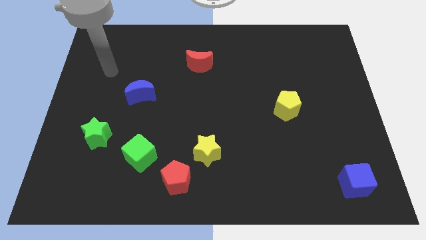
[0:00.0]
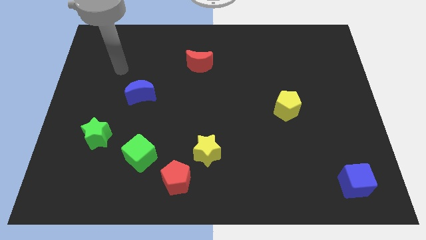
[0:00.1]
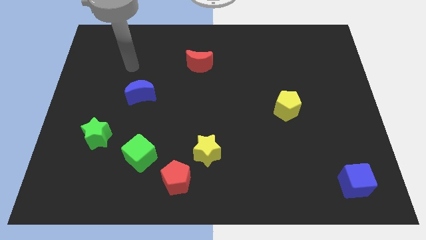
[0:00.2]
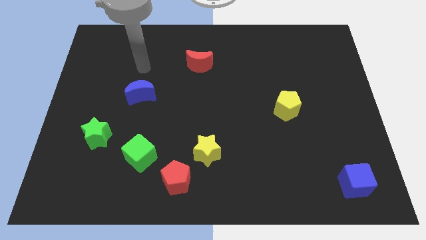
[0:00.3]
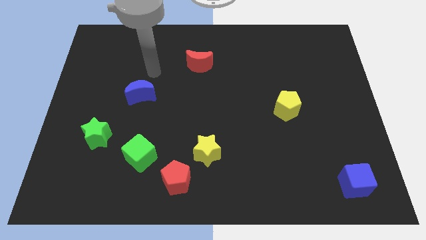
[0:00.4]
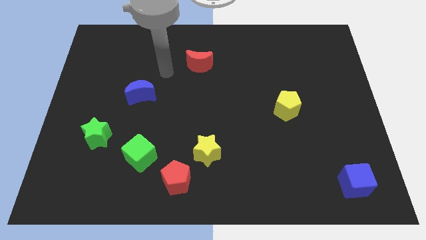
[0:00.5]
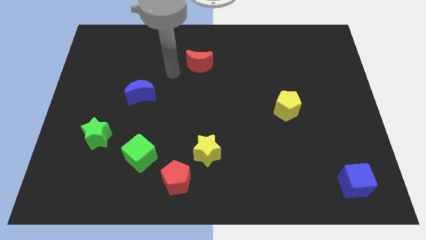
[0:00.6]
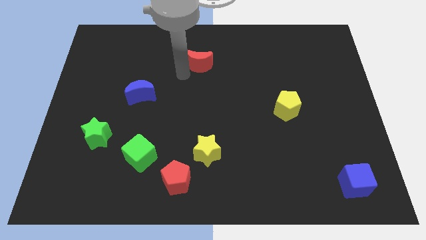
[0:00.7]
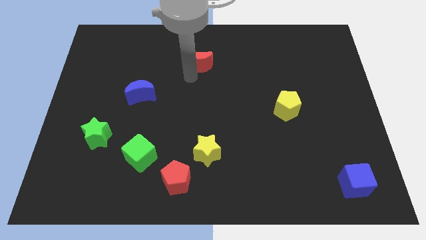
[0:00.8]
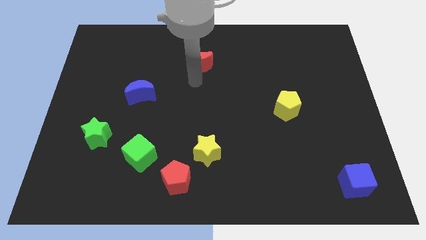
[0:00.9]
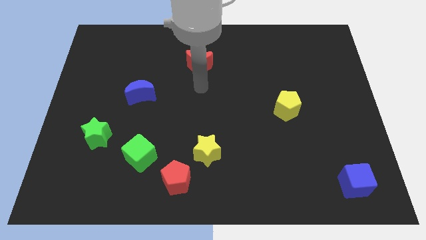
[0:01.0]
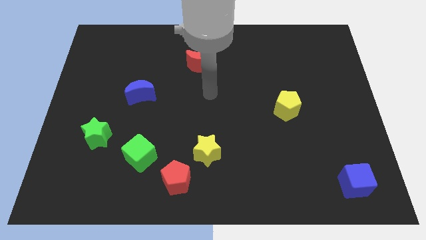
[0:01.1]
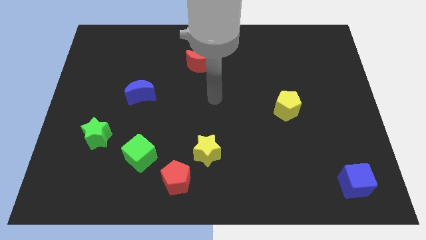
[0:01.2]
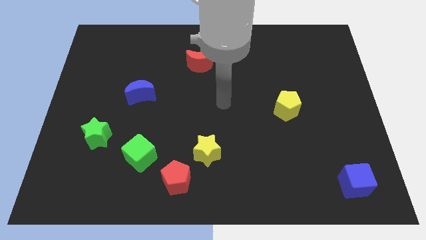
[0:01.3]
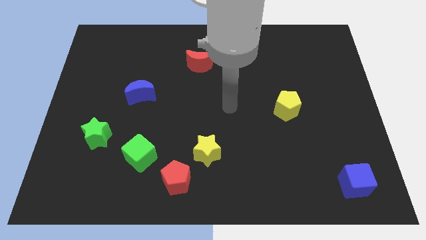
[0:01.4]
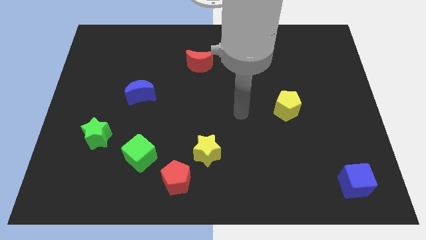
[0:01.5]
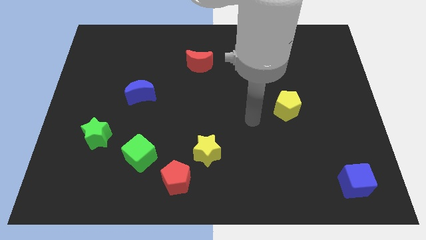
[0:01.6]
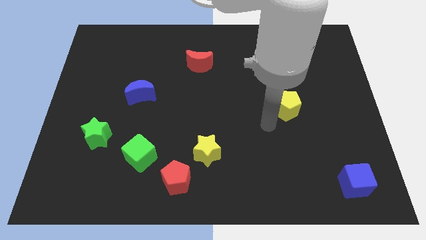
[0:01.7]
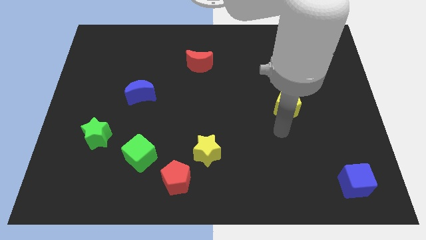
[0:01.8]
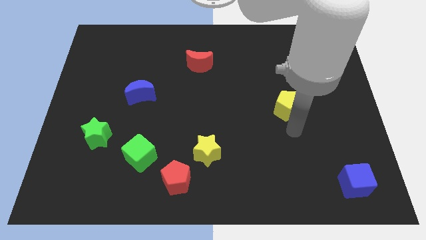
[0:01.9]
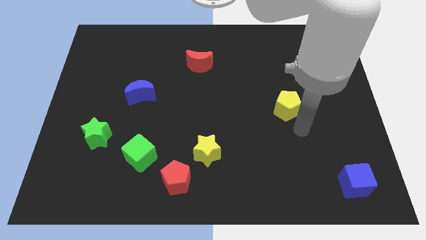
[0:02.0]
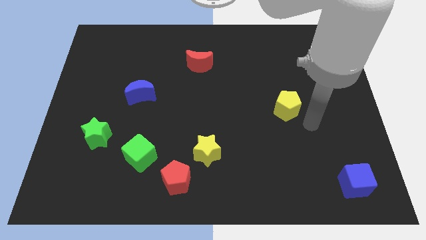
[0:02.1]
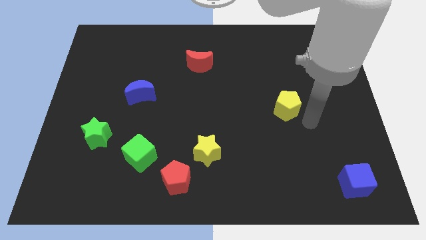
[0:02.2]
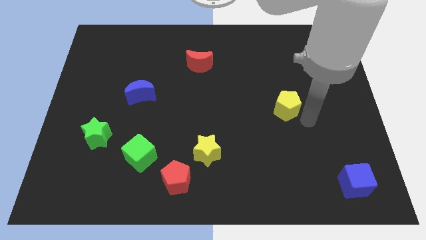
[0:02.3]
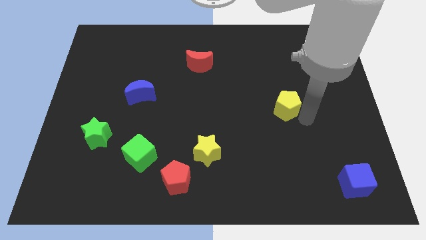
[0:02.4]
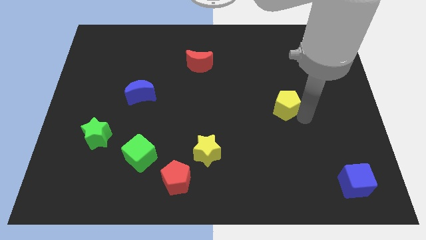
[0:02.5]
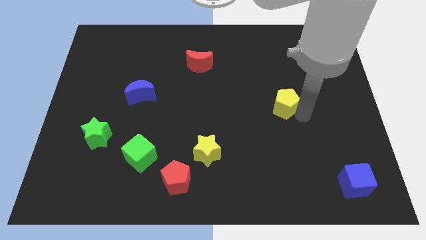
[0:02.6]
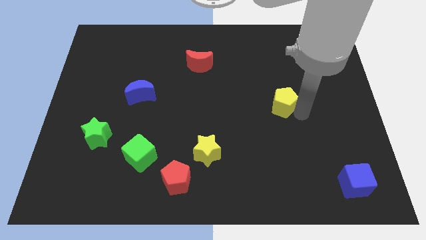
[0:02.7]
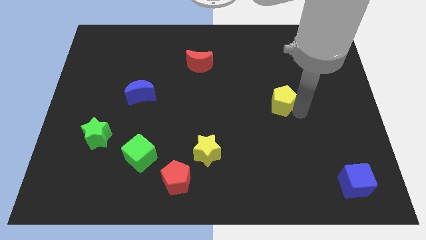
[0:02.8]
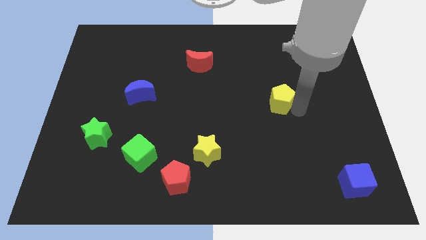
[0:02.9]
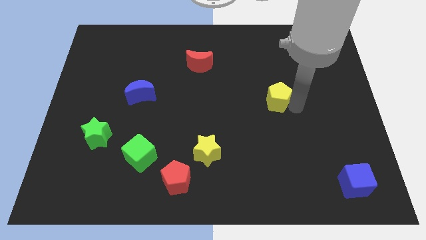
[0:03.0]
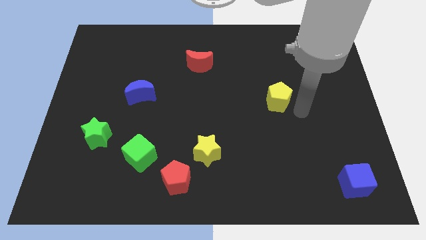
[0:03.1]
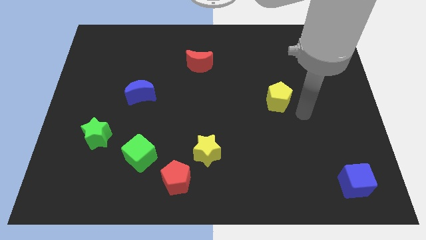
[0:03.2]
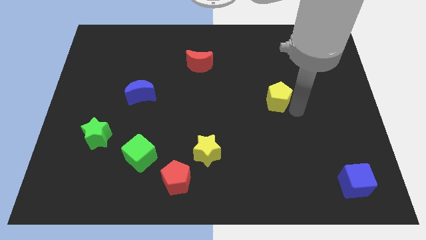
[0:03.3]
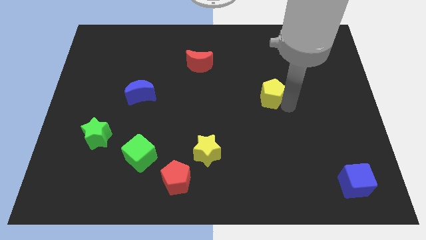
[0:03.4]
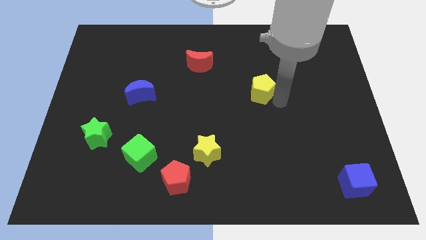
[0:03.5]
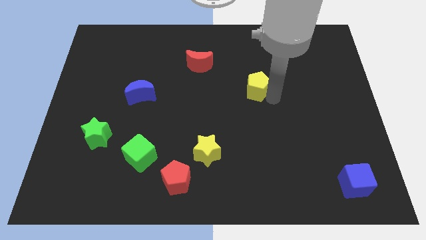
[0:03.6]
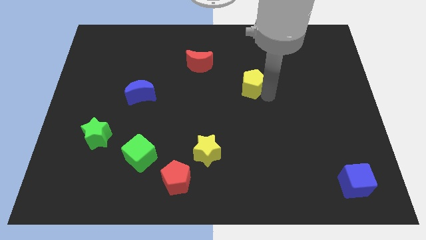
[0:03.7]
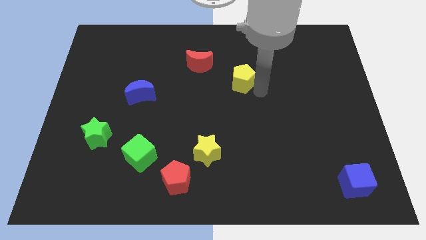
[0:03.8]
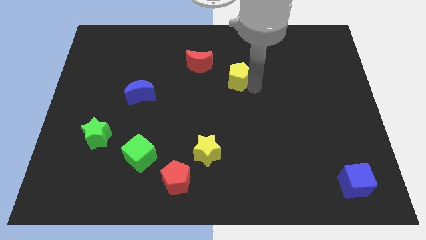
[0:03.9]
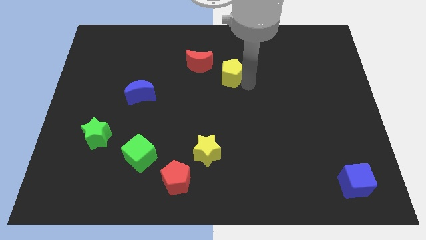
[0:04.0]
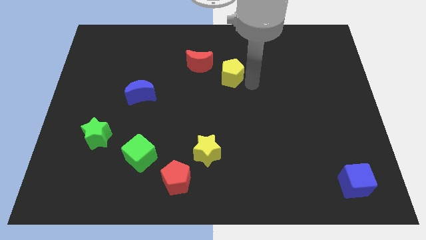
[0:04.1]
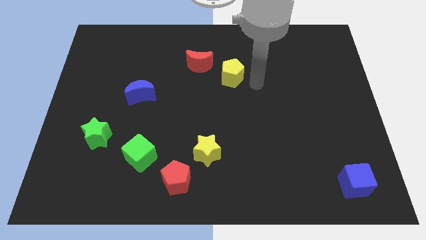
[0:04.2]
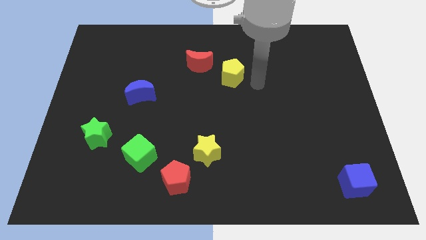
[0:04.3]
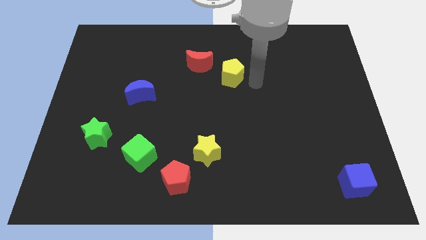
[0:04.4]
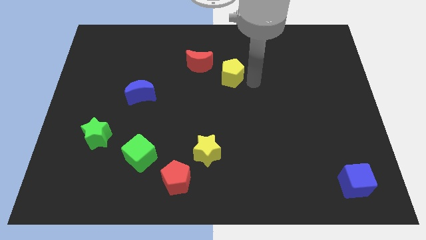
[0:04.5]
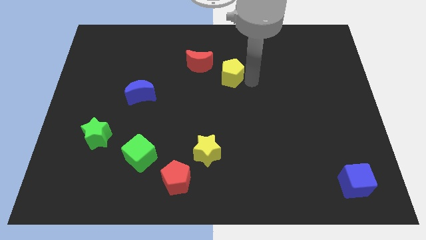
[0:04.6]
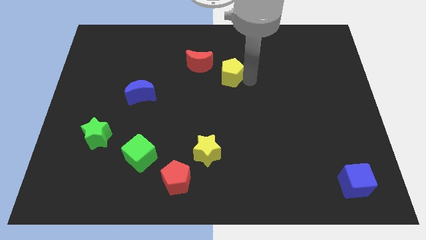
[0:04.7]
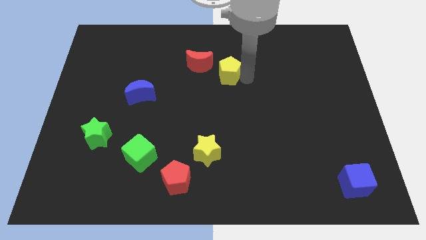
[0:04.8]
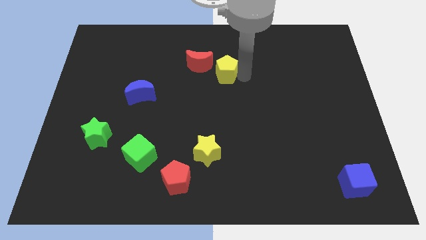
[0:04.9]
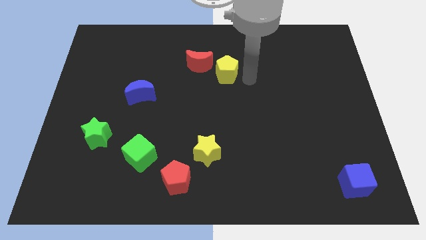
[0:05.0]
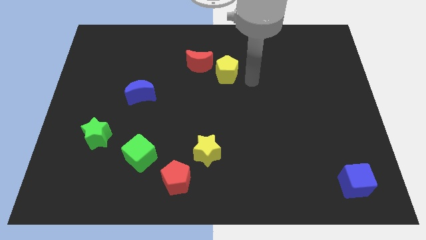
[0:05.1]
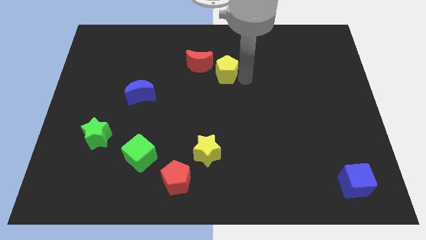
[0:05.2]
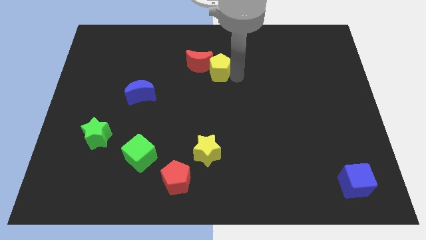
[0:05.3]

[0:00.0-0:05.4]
move the yellow pentagon to the red moon

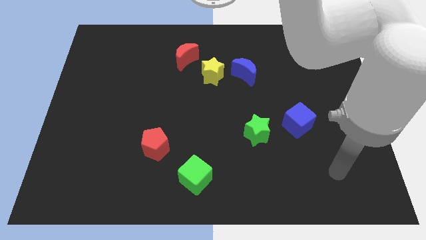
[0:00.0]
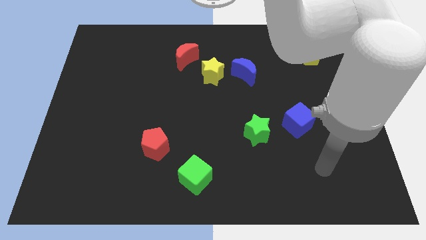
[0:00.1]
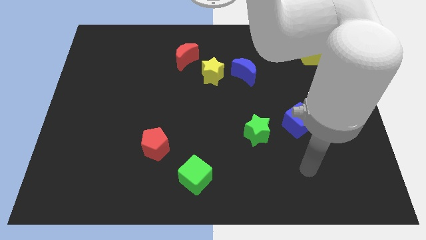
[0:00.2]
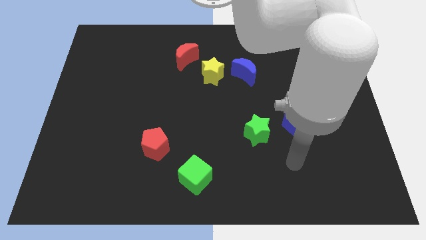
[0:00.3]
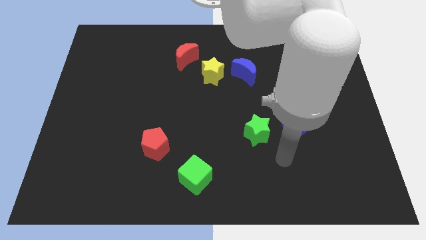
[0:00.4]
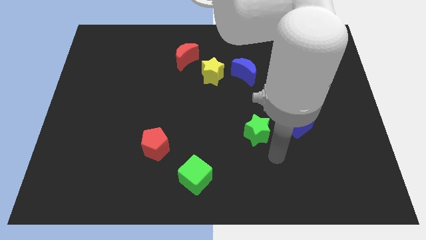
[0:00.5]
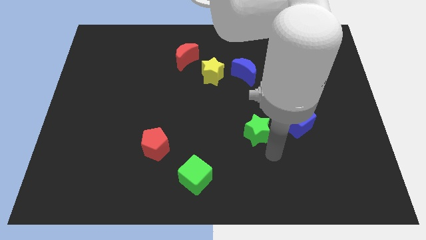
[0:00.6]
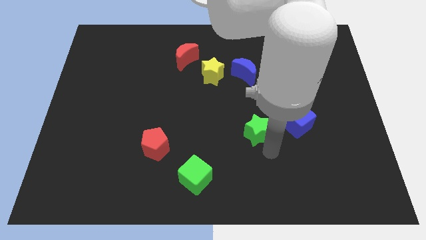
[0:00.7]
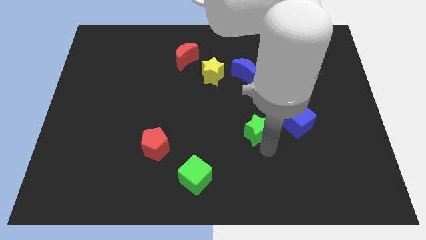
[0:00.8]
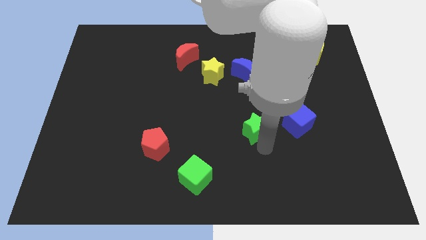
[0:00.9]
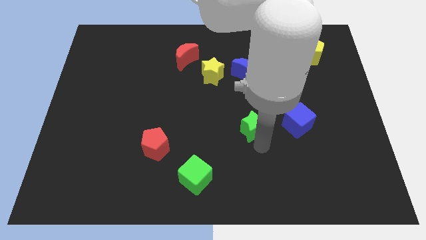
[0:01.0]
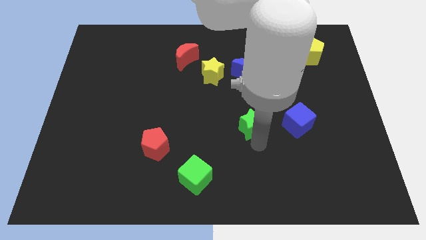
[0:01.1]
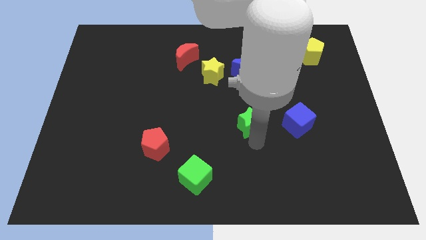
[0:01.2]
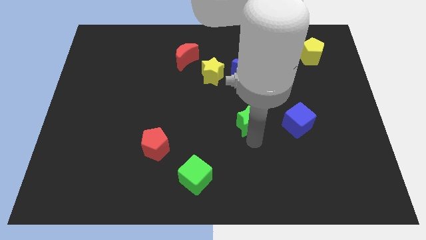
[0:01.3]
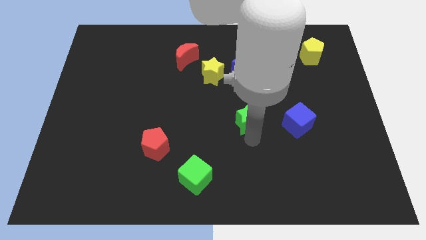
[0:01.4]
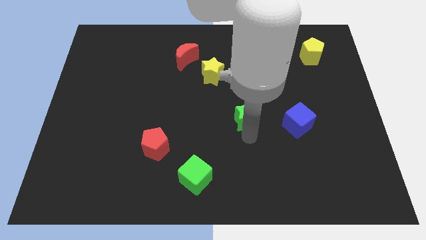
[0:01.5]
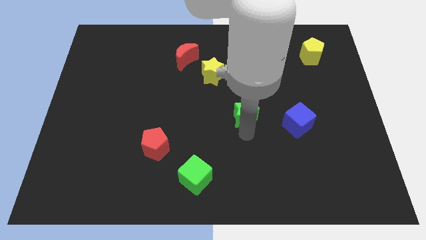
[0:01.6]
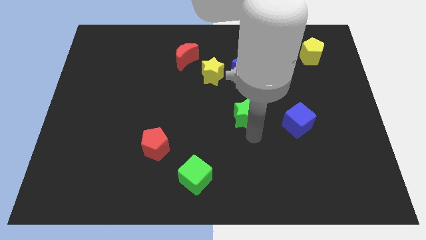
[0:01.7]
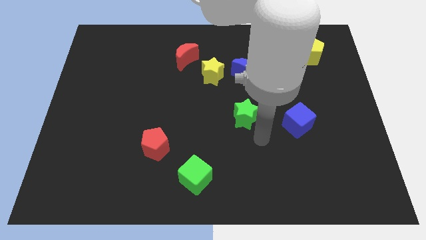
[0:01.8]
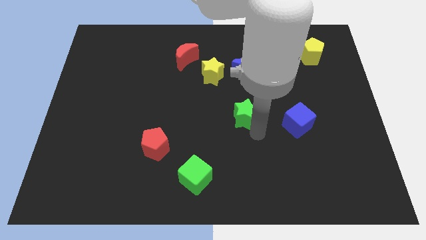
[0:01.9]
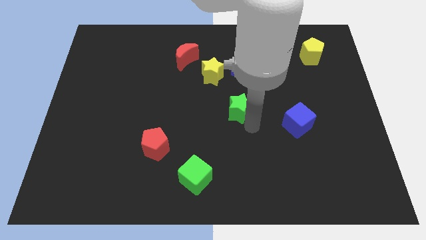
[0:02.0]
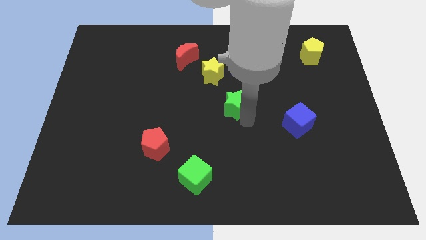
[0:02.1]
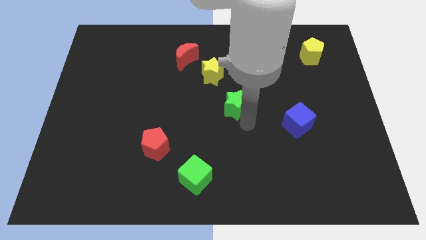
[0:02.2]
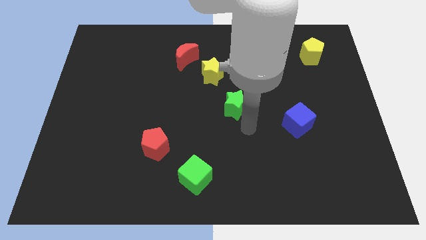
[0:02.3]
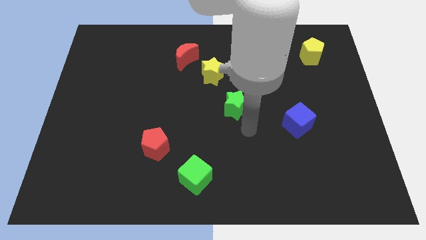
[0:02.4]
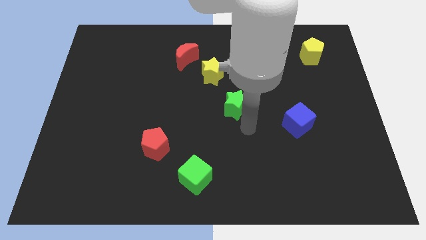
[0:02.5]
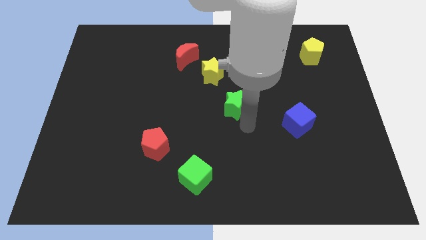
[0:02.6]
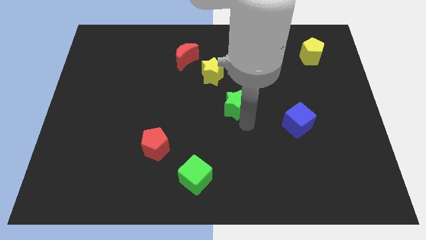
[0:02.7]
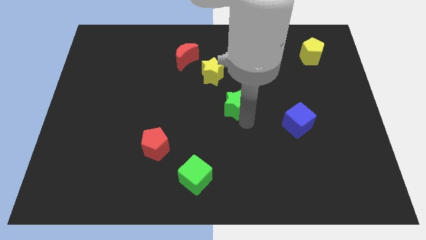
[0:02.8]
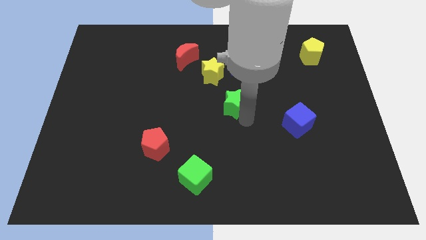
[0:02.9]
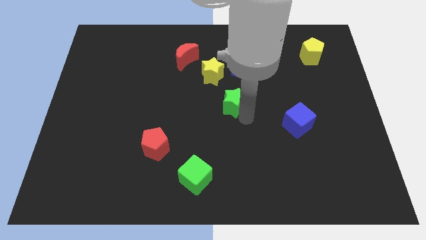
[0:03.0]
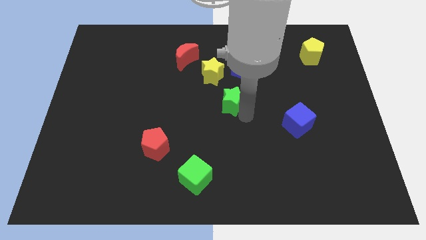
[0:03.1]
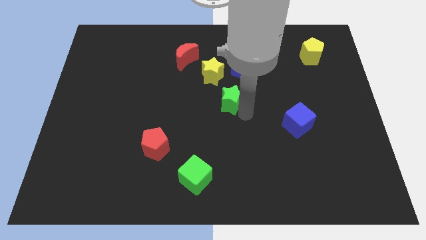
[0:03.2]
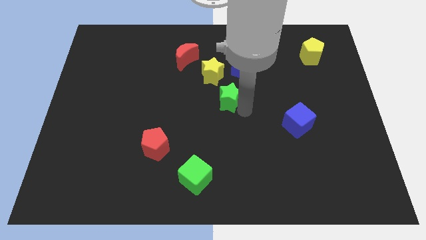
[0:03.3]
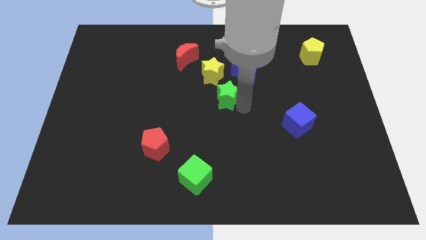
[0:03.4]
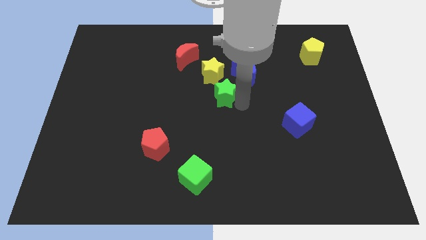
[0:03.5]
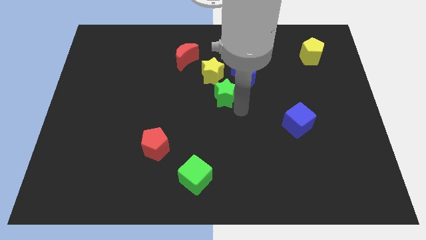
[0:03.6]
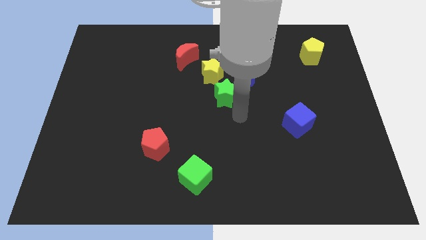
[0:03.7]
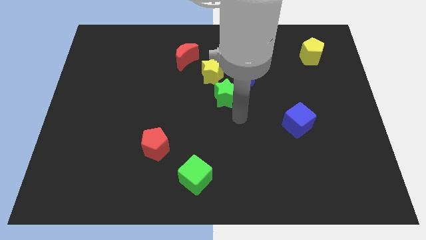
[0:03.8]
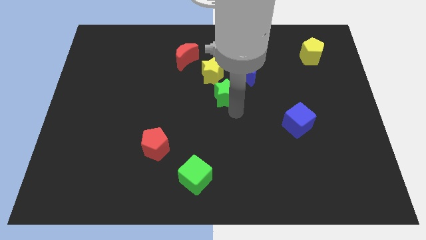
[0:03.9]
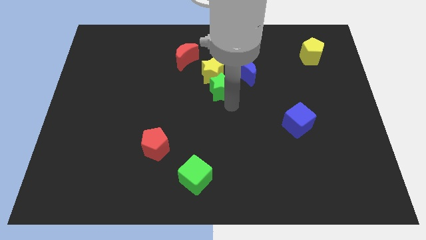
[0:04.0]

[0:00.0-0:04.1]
move the green star close to the yellow star
